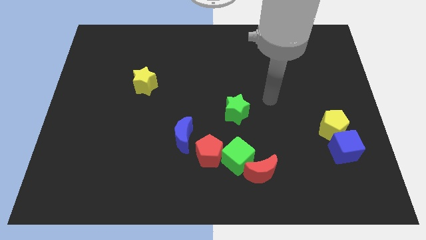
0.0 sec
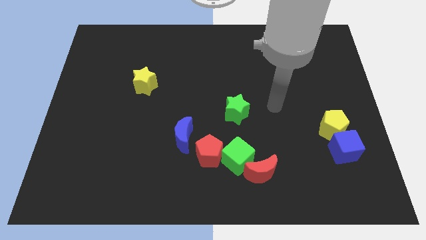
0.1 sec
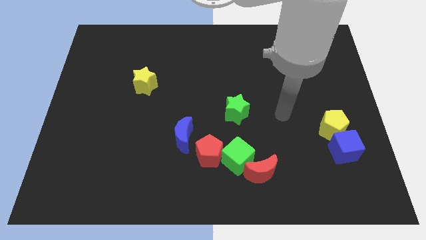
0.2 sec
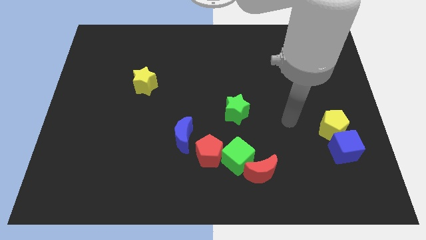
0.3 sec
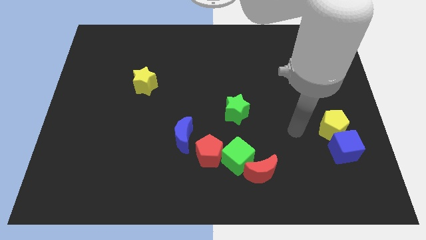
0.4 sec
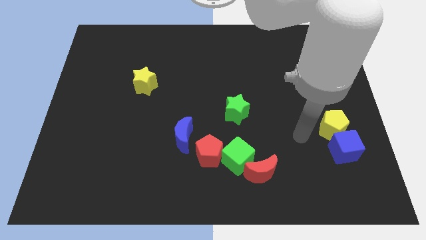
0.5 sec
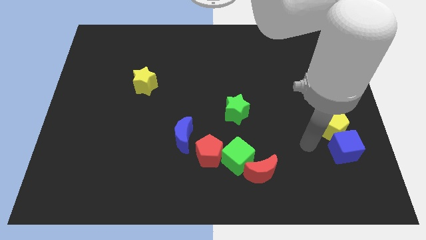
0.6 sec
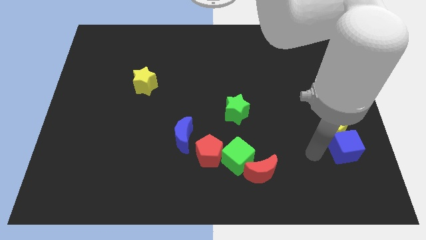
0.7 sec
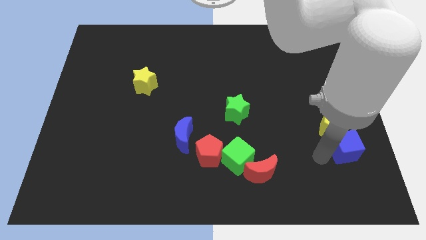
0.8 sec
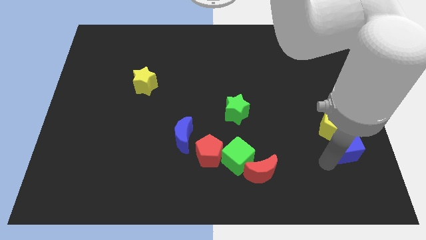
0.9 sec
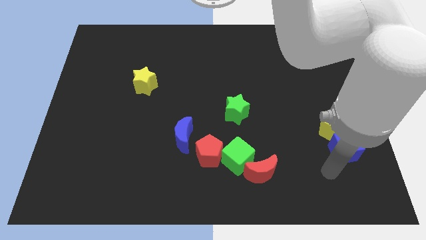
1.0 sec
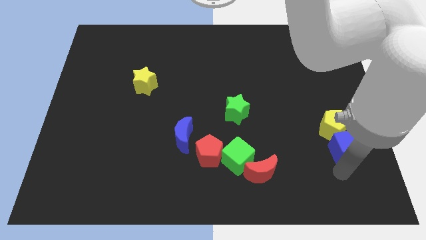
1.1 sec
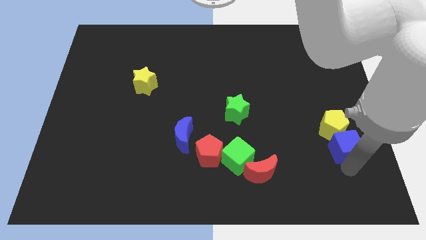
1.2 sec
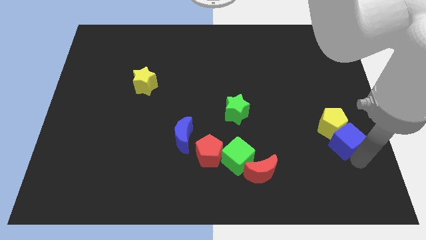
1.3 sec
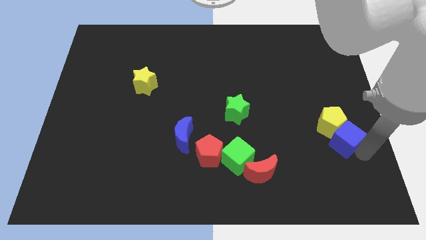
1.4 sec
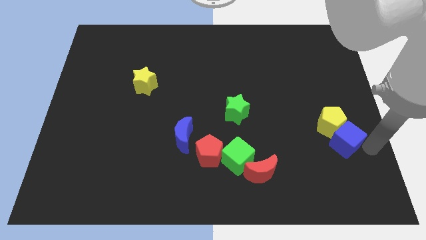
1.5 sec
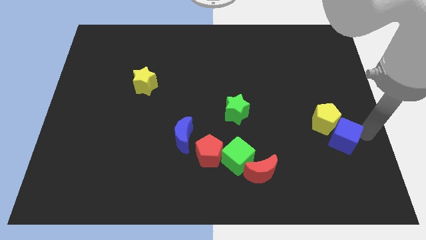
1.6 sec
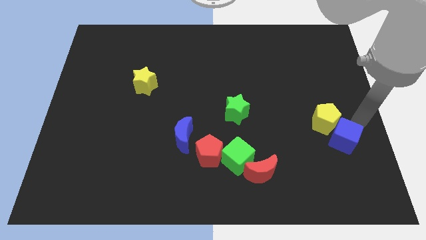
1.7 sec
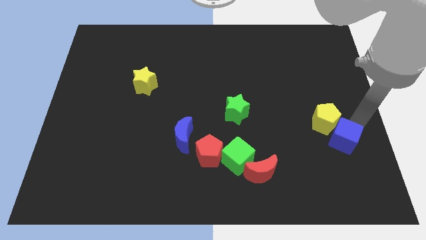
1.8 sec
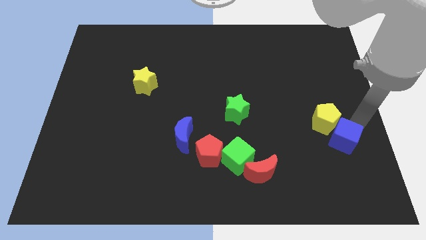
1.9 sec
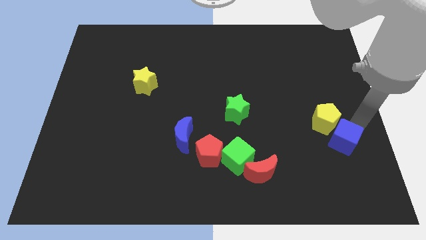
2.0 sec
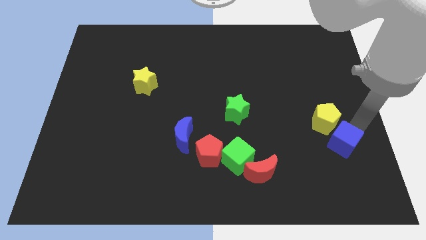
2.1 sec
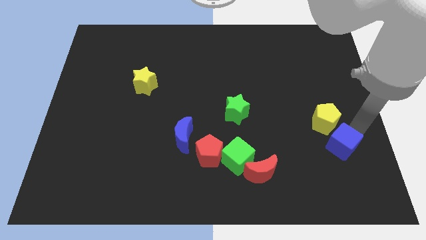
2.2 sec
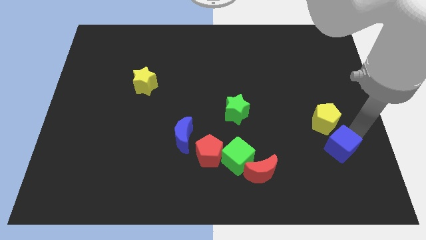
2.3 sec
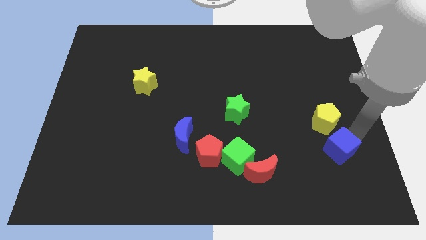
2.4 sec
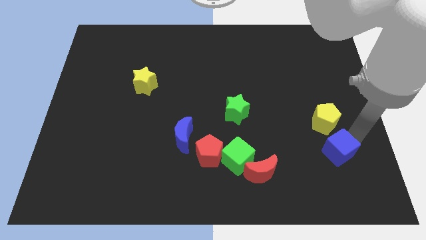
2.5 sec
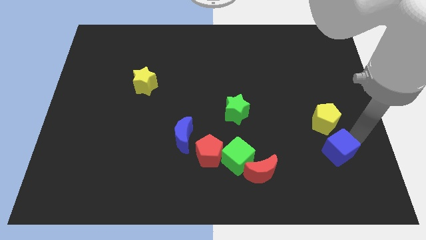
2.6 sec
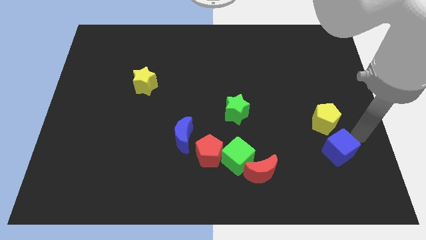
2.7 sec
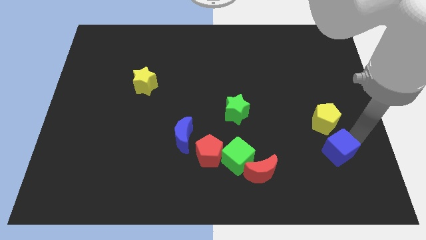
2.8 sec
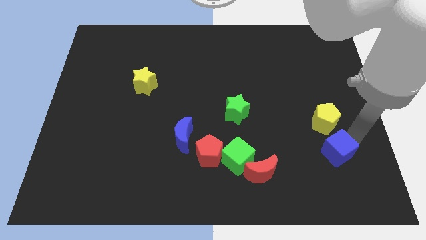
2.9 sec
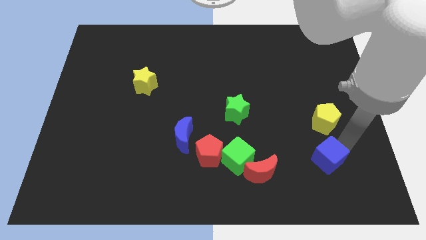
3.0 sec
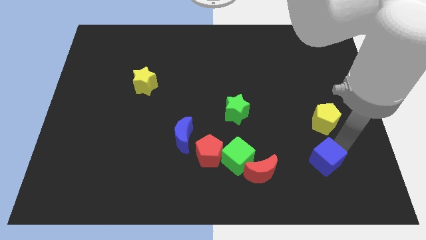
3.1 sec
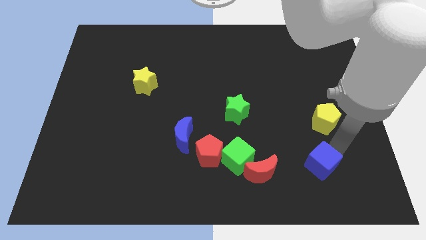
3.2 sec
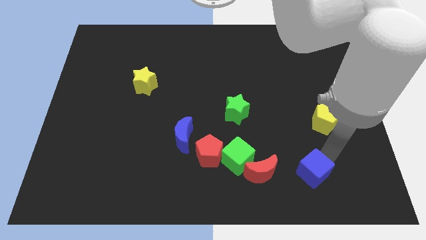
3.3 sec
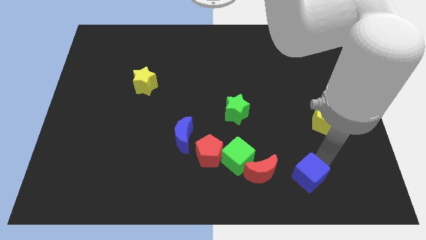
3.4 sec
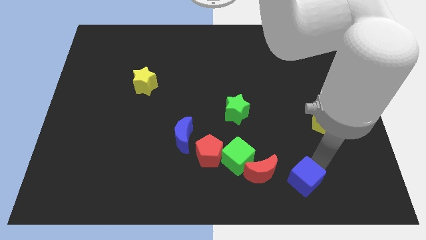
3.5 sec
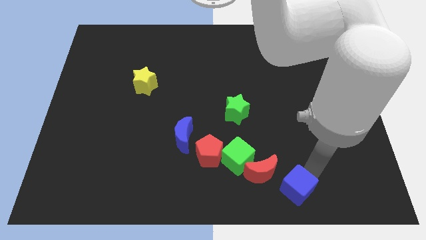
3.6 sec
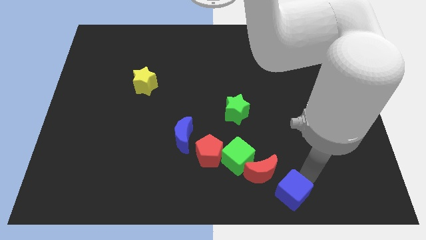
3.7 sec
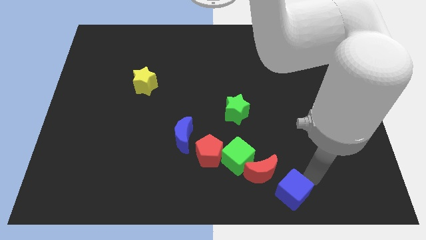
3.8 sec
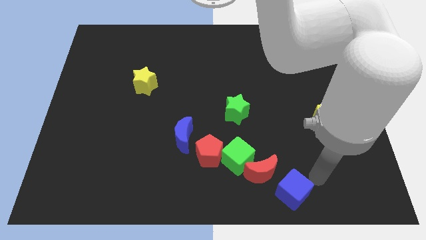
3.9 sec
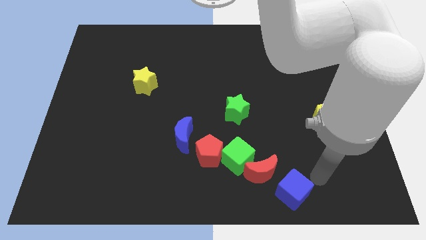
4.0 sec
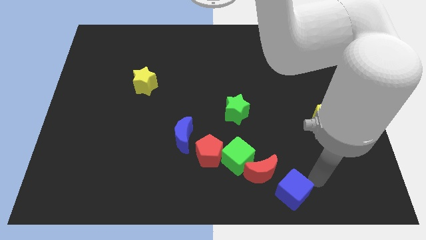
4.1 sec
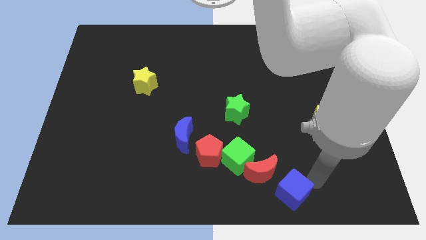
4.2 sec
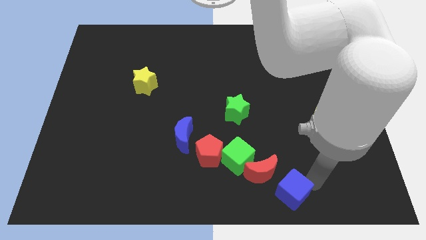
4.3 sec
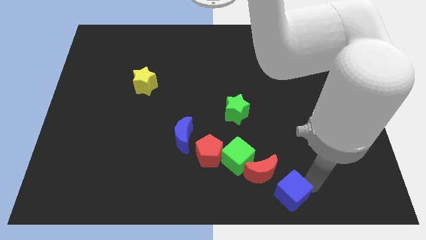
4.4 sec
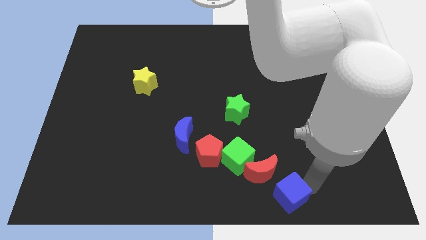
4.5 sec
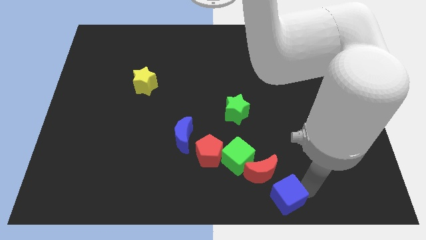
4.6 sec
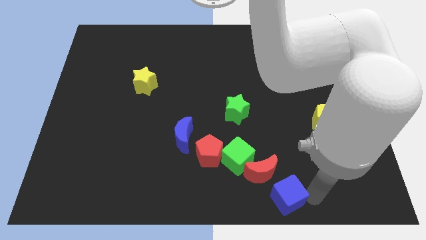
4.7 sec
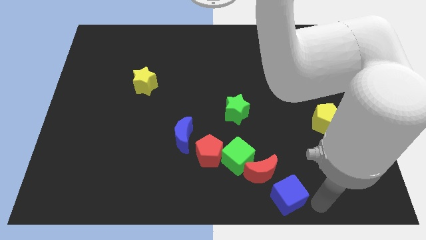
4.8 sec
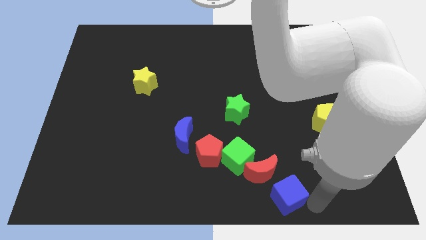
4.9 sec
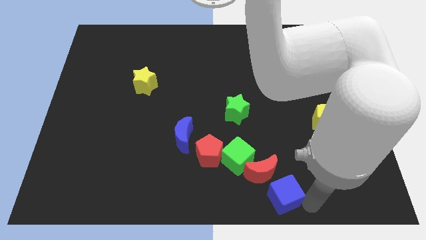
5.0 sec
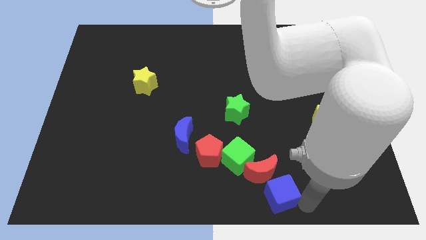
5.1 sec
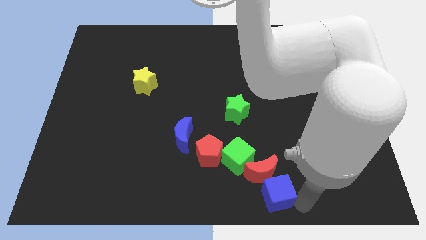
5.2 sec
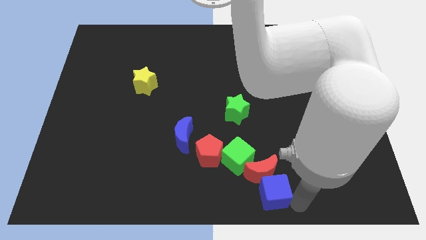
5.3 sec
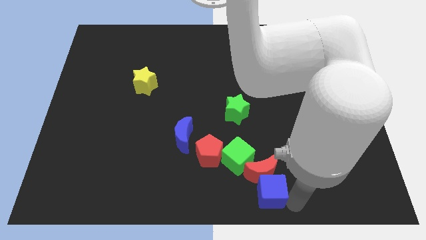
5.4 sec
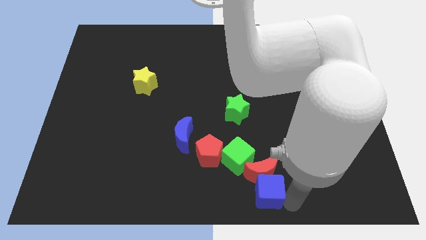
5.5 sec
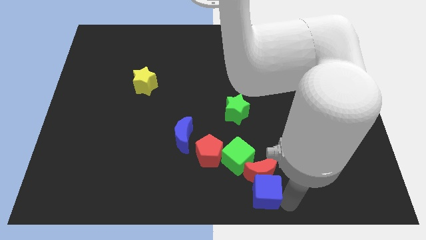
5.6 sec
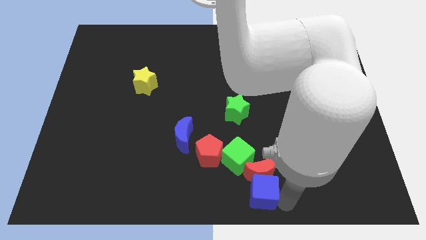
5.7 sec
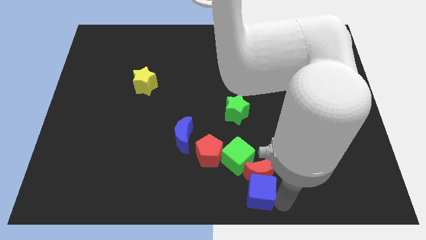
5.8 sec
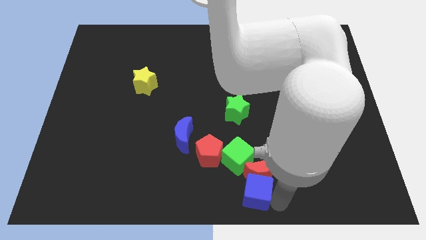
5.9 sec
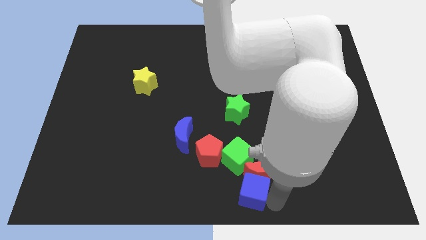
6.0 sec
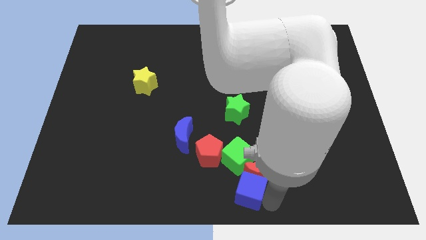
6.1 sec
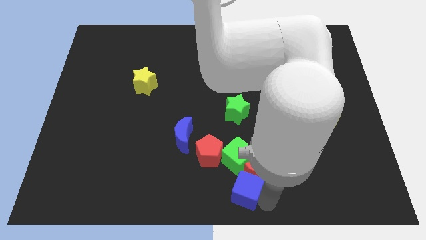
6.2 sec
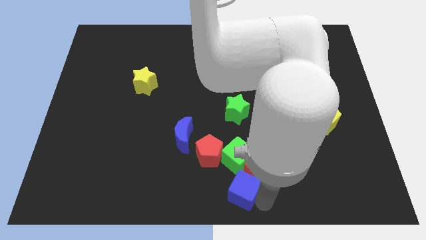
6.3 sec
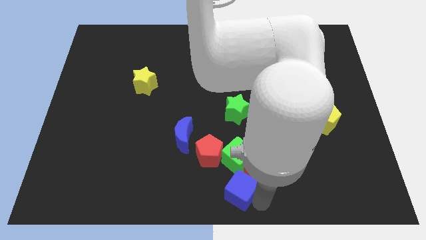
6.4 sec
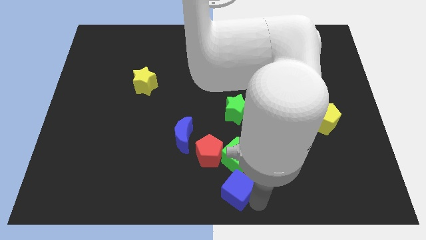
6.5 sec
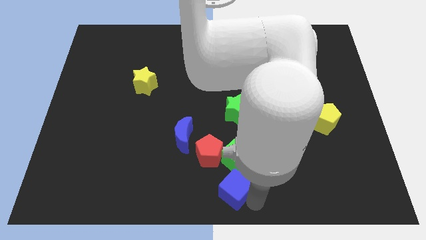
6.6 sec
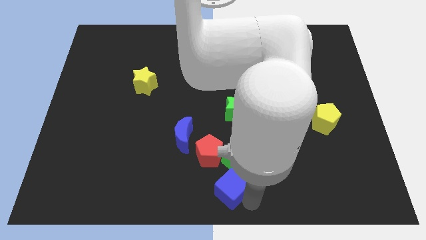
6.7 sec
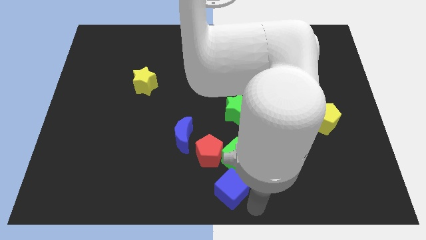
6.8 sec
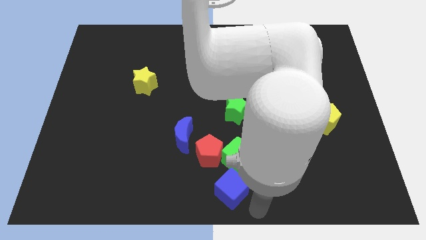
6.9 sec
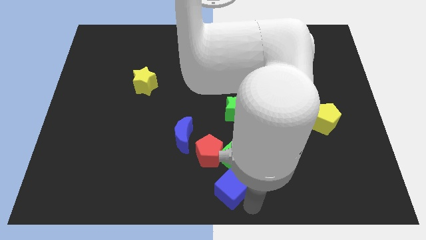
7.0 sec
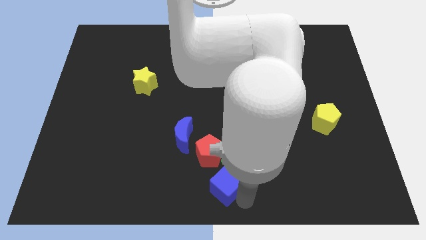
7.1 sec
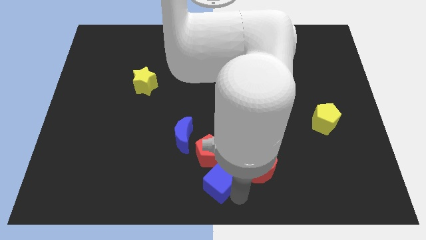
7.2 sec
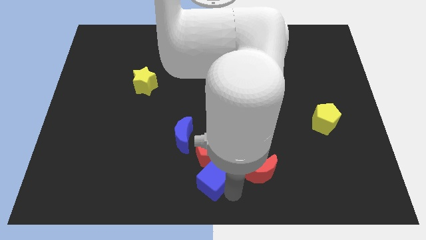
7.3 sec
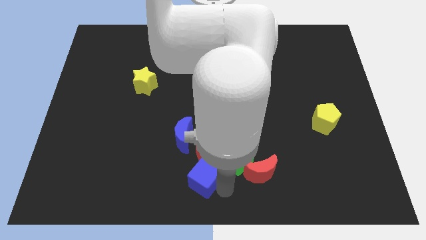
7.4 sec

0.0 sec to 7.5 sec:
move the blue cube to the left of the green cube
